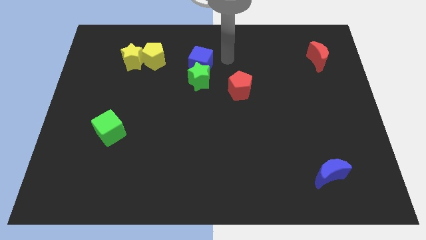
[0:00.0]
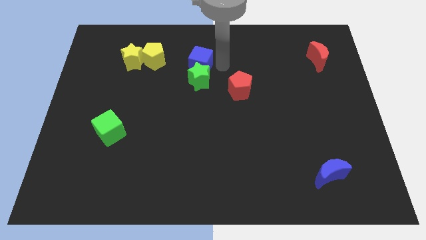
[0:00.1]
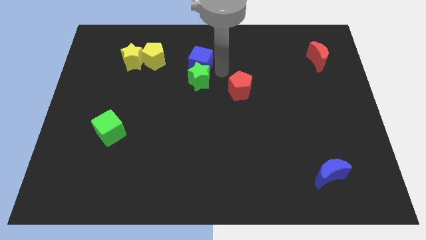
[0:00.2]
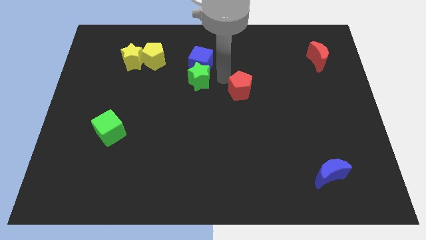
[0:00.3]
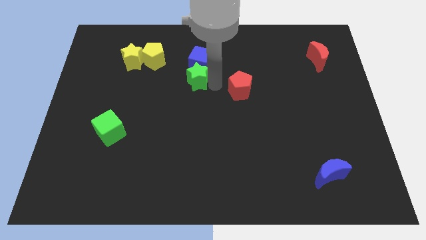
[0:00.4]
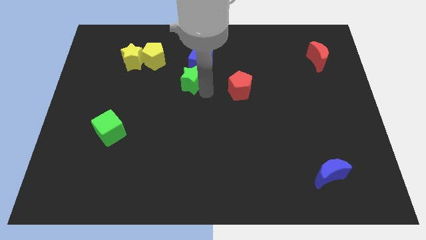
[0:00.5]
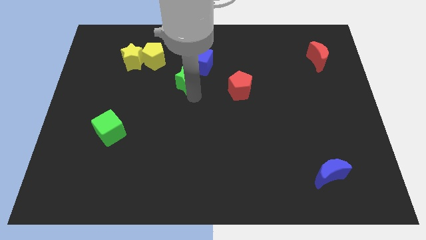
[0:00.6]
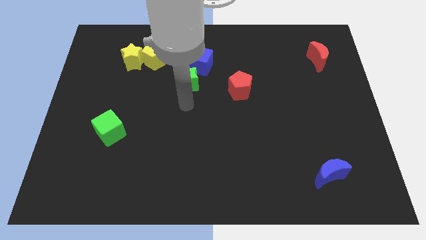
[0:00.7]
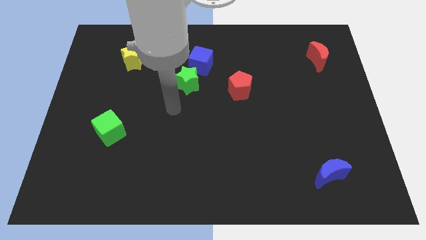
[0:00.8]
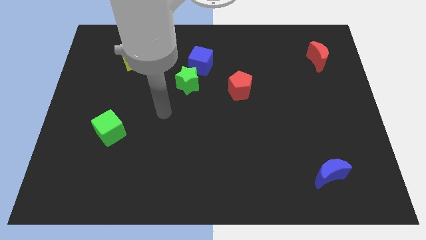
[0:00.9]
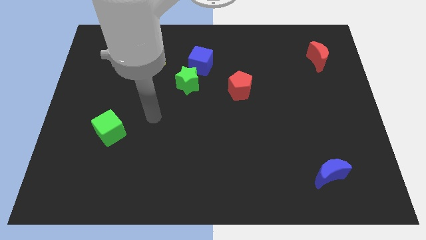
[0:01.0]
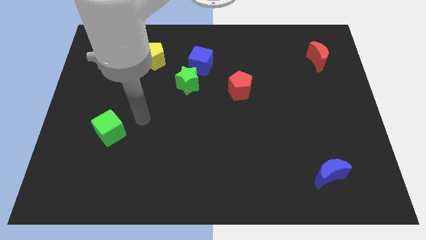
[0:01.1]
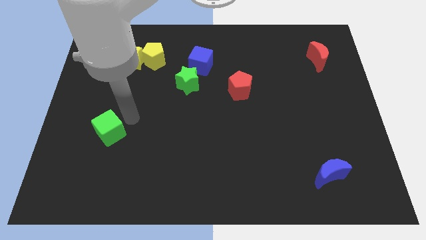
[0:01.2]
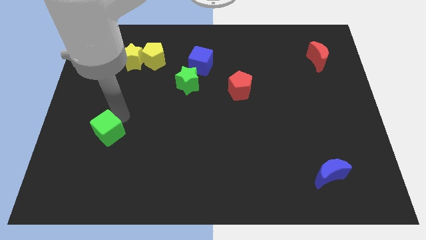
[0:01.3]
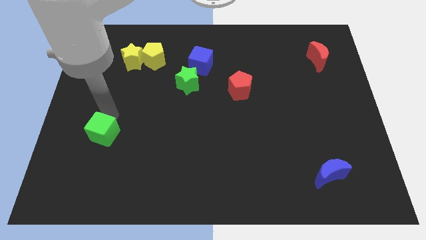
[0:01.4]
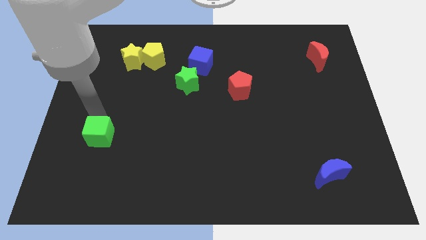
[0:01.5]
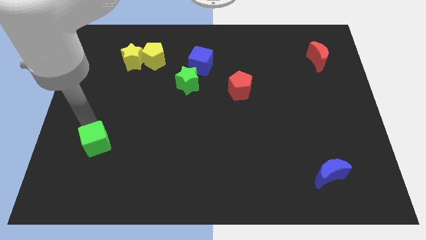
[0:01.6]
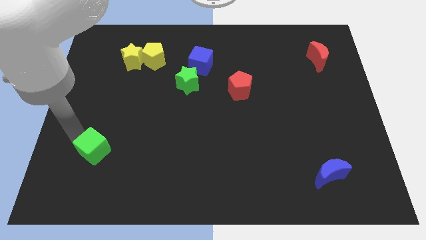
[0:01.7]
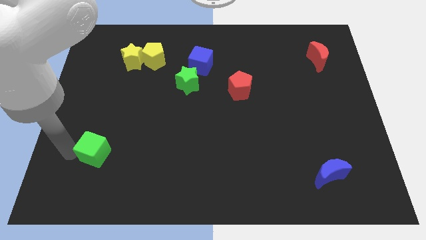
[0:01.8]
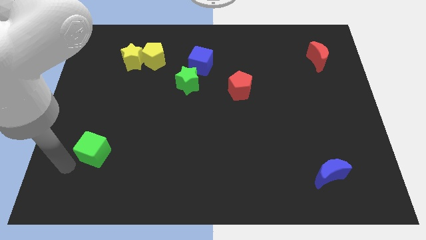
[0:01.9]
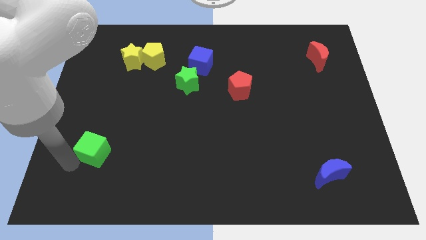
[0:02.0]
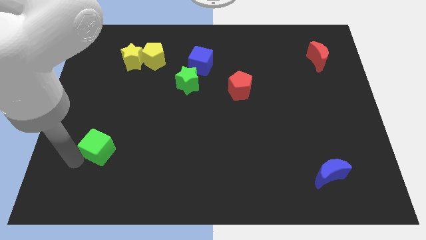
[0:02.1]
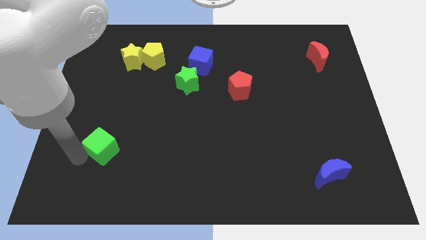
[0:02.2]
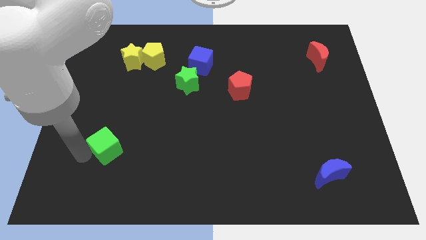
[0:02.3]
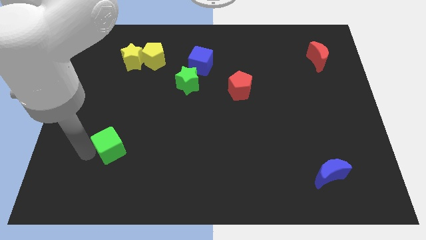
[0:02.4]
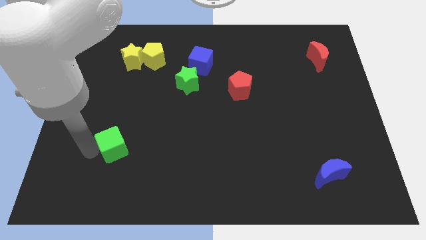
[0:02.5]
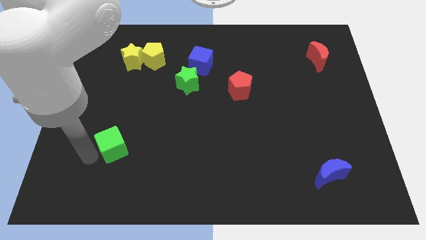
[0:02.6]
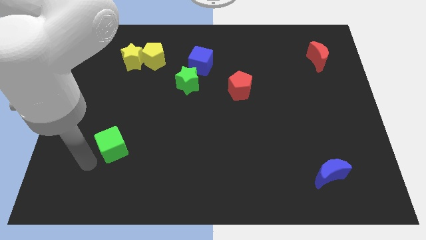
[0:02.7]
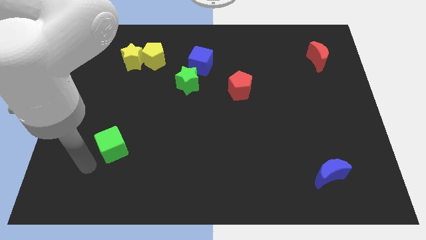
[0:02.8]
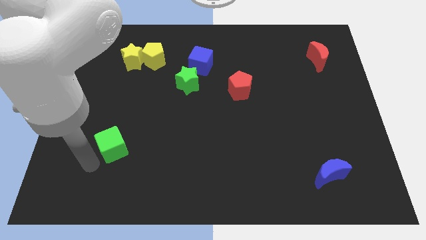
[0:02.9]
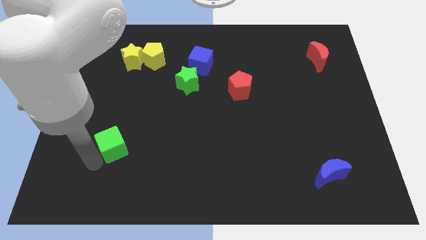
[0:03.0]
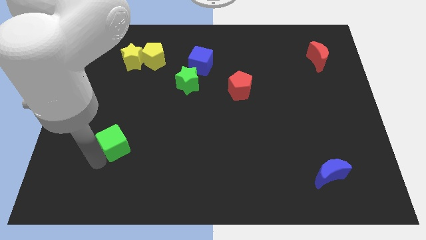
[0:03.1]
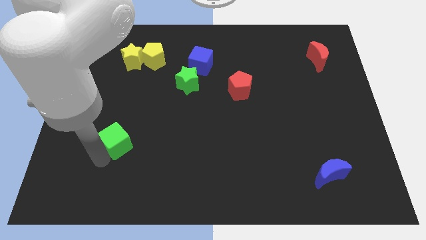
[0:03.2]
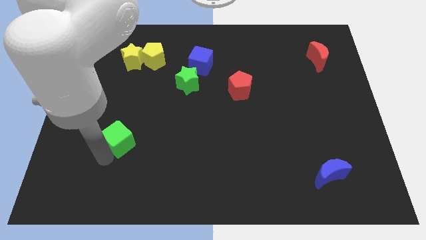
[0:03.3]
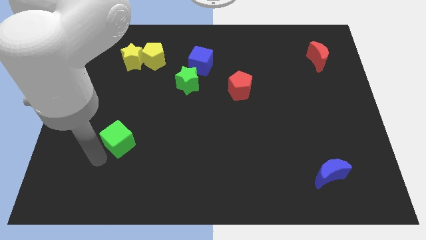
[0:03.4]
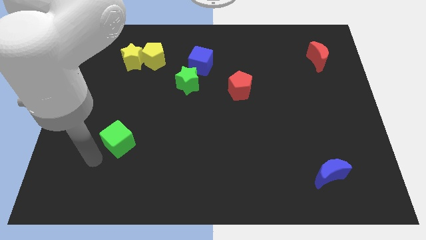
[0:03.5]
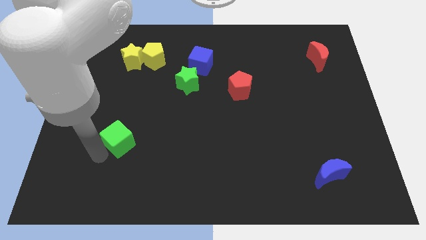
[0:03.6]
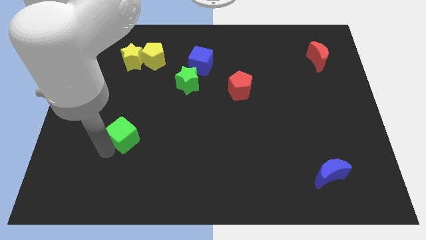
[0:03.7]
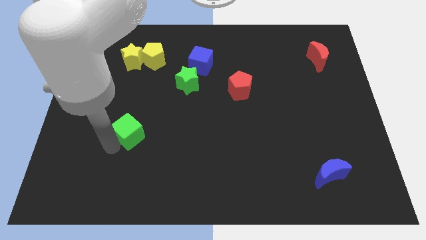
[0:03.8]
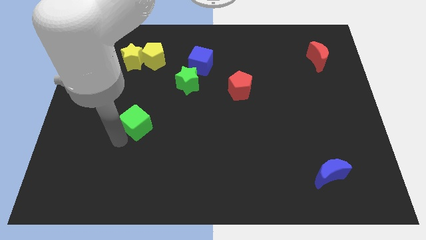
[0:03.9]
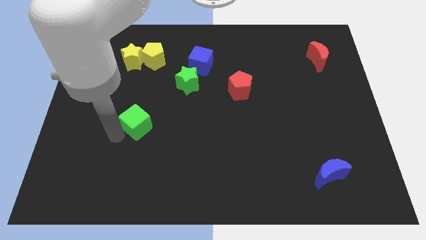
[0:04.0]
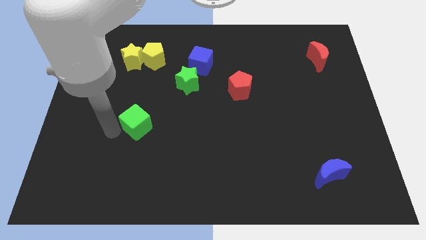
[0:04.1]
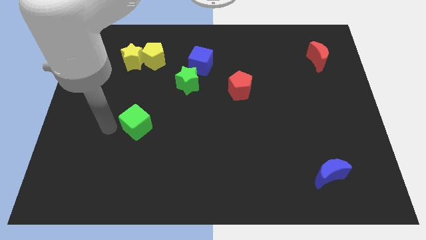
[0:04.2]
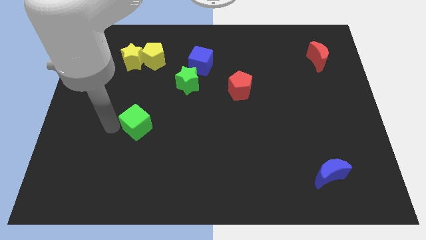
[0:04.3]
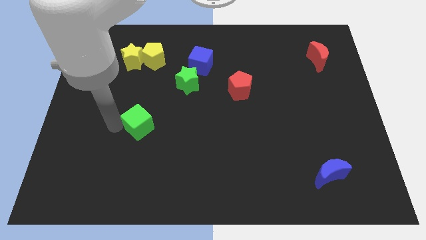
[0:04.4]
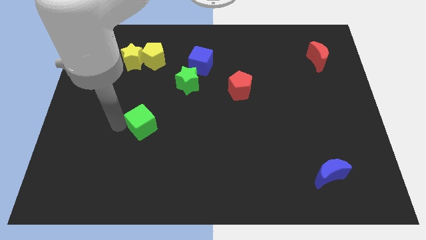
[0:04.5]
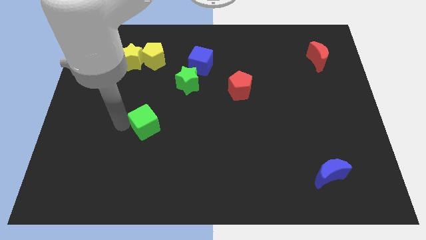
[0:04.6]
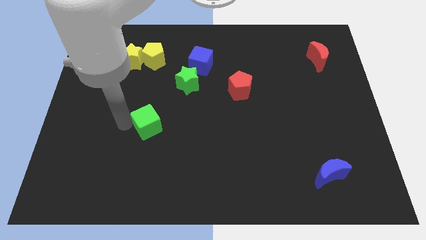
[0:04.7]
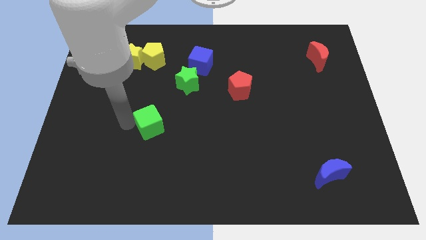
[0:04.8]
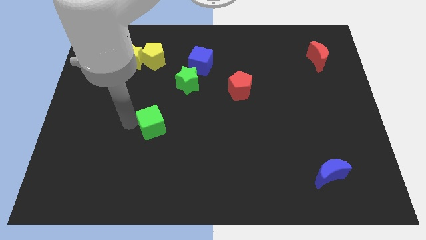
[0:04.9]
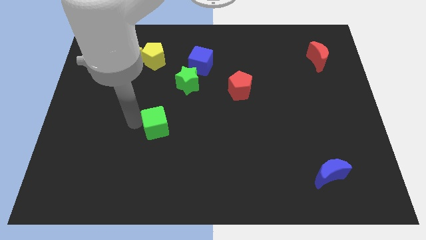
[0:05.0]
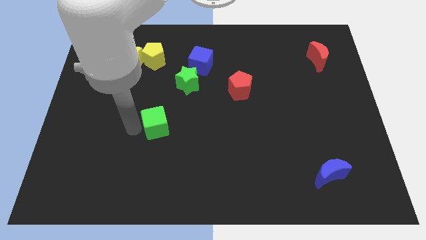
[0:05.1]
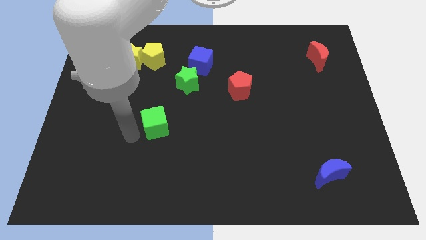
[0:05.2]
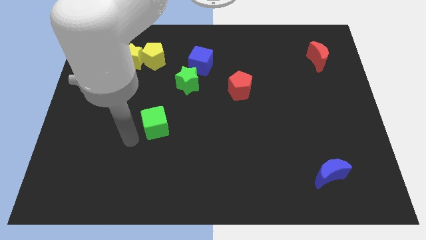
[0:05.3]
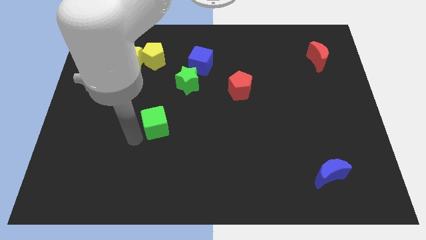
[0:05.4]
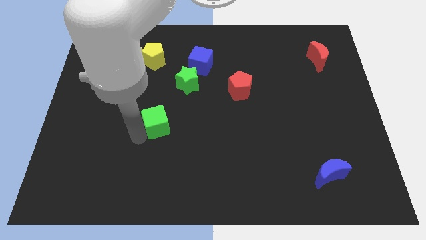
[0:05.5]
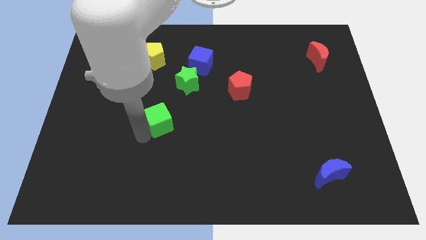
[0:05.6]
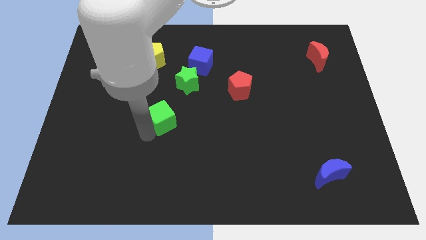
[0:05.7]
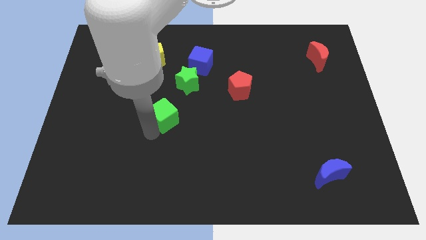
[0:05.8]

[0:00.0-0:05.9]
move the green cube to the center
